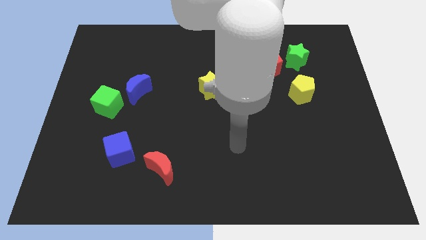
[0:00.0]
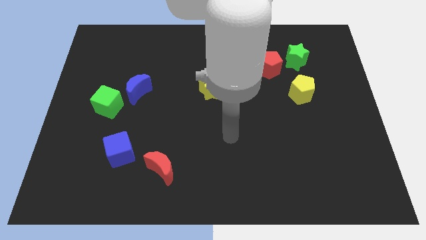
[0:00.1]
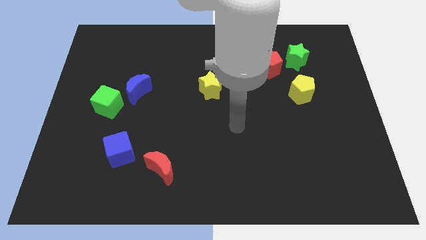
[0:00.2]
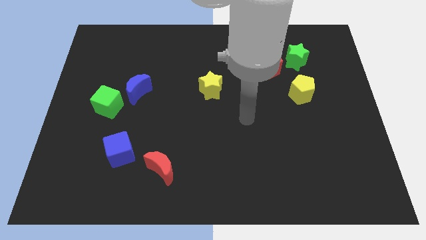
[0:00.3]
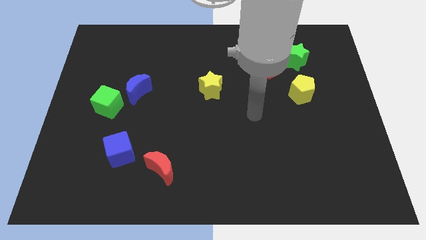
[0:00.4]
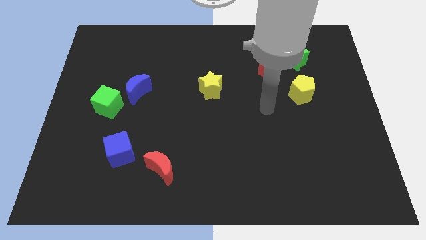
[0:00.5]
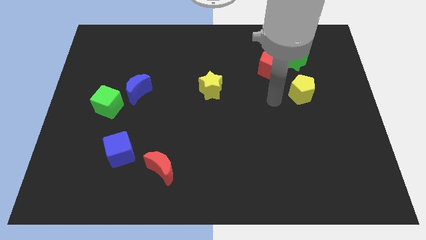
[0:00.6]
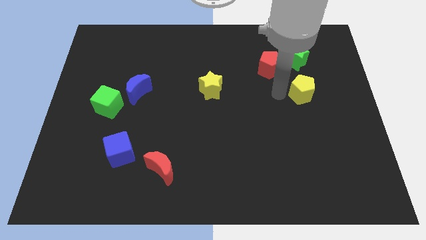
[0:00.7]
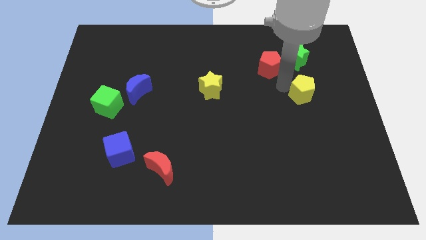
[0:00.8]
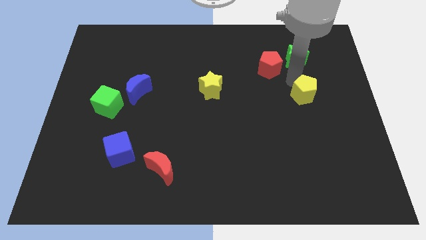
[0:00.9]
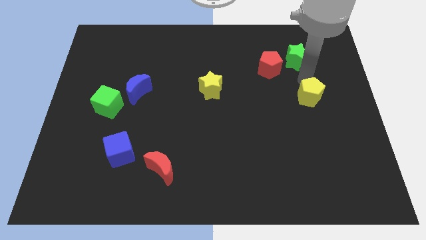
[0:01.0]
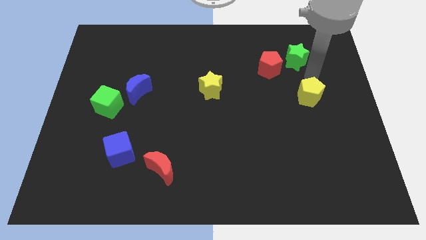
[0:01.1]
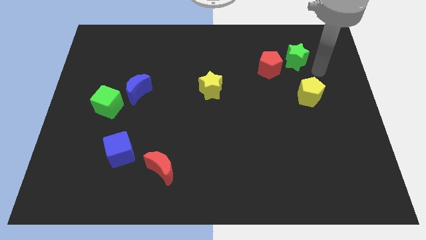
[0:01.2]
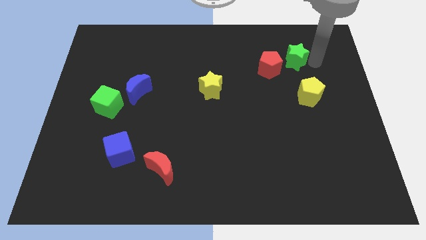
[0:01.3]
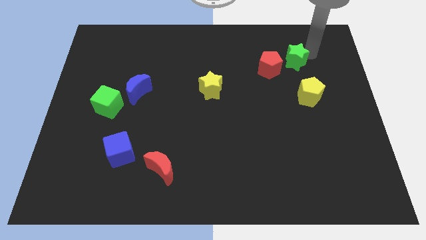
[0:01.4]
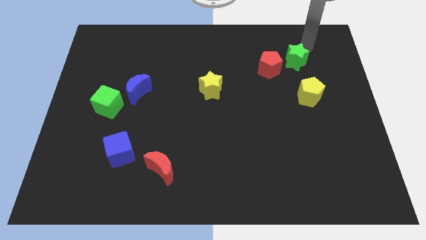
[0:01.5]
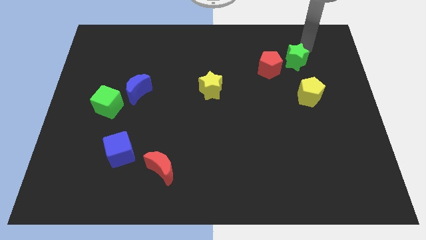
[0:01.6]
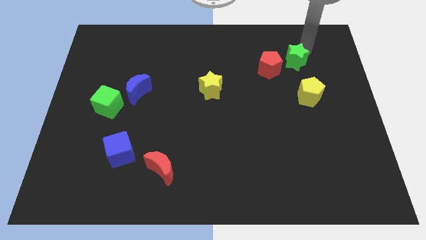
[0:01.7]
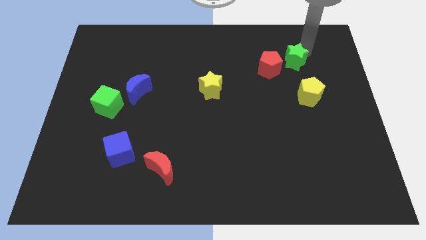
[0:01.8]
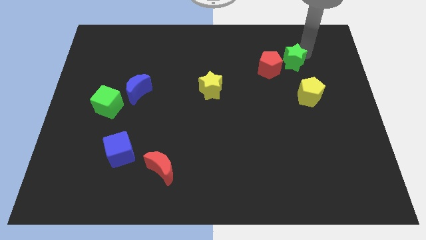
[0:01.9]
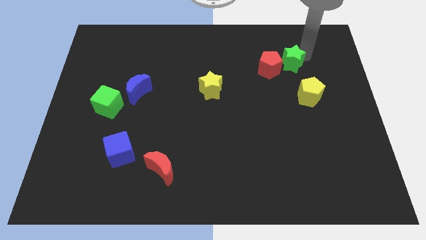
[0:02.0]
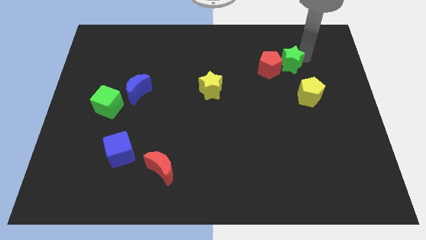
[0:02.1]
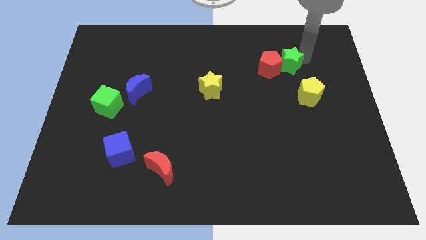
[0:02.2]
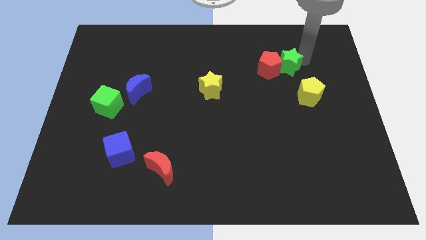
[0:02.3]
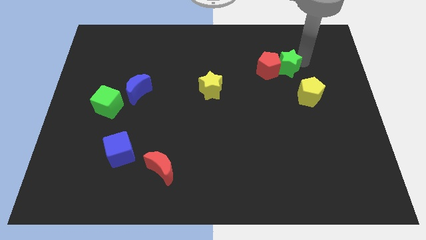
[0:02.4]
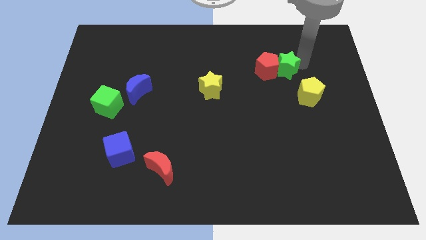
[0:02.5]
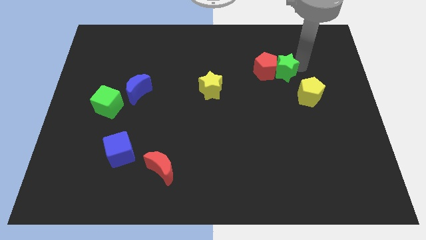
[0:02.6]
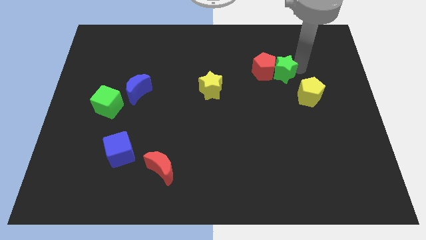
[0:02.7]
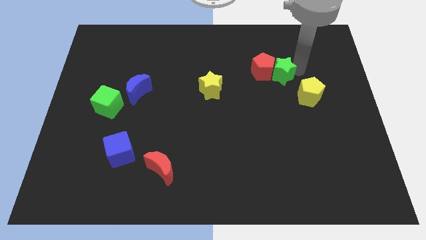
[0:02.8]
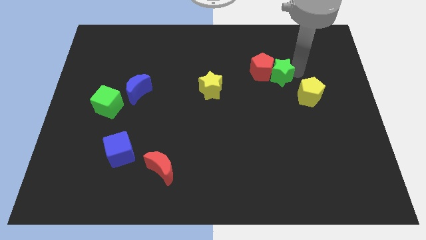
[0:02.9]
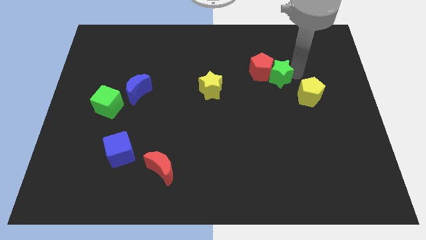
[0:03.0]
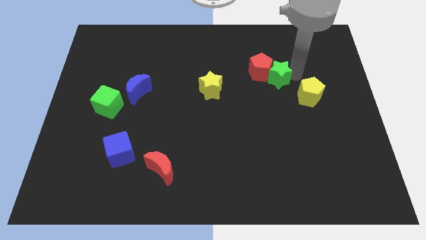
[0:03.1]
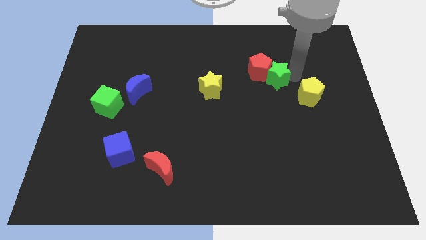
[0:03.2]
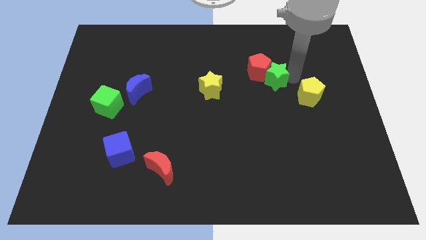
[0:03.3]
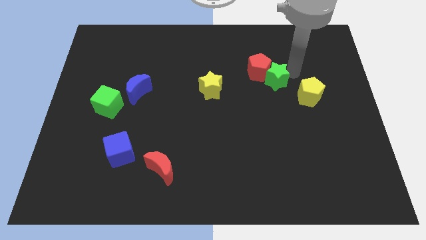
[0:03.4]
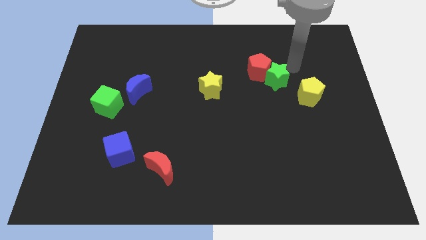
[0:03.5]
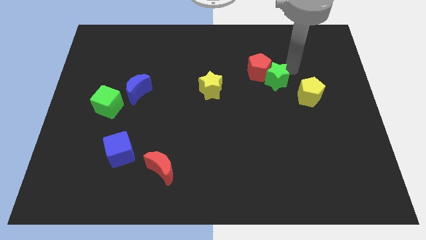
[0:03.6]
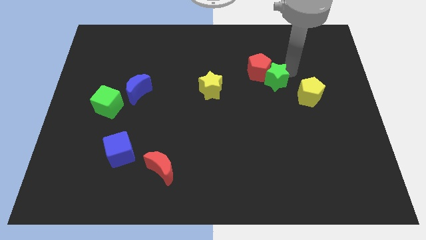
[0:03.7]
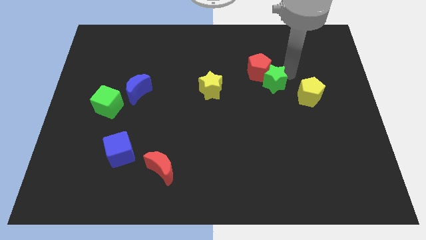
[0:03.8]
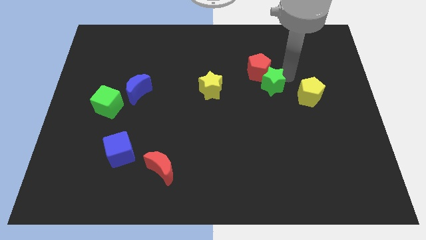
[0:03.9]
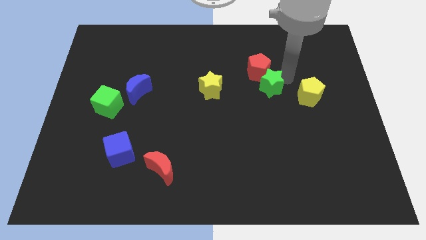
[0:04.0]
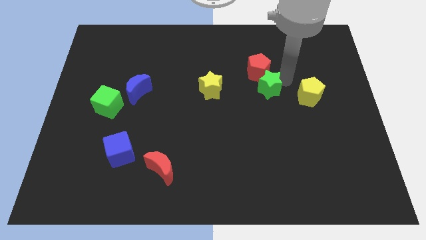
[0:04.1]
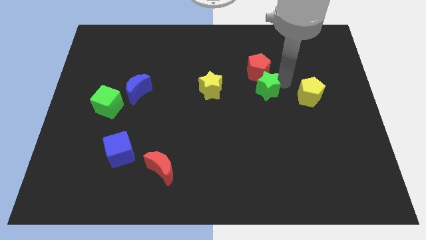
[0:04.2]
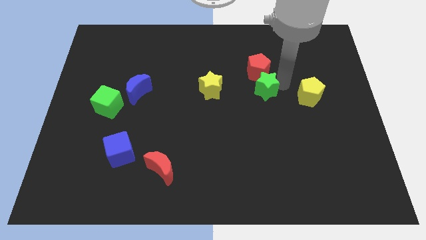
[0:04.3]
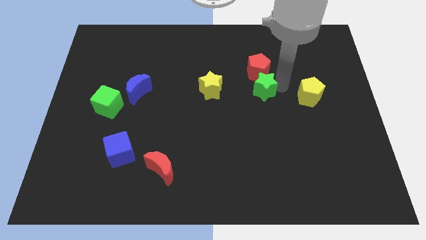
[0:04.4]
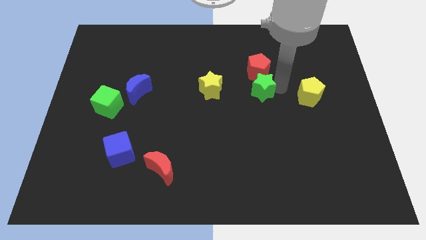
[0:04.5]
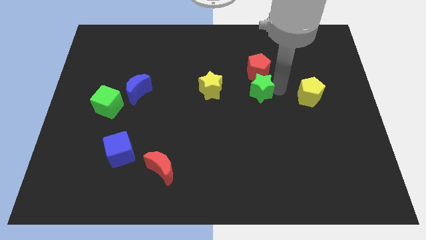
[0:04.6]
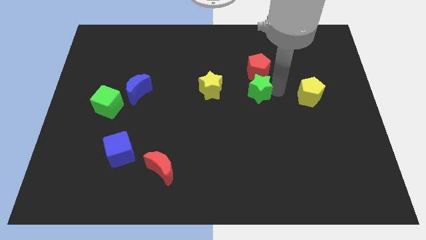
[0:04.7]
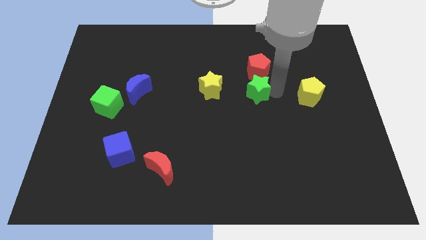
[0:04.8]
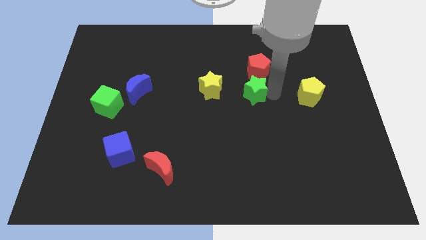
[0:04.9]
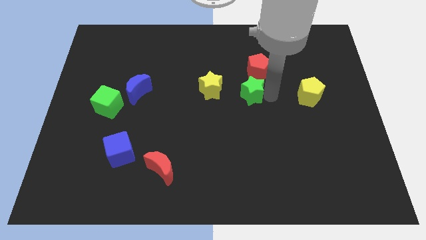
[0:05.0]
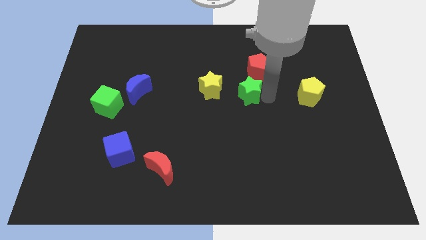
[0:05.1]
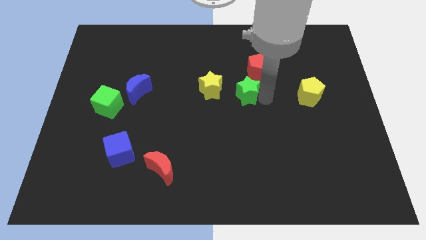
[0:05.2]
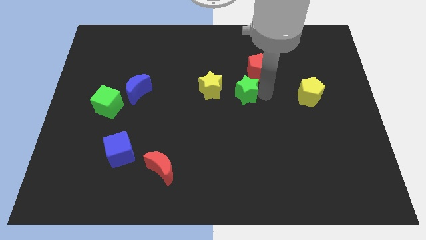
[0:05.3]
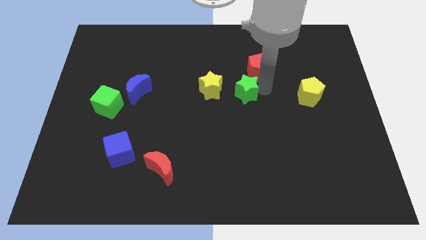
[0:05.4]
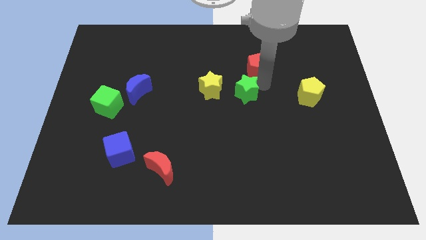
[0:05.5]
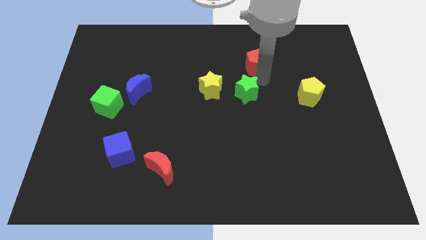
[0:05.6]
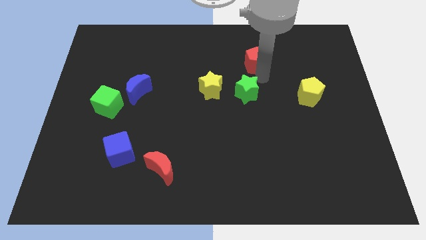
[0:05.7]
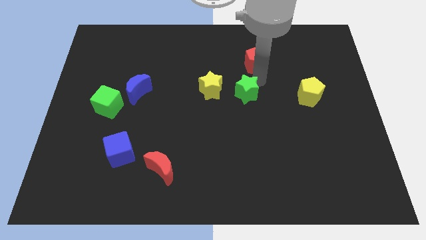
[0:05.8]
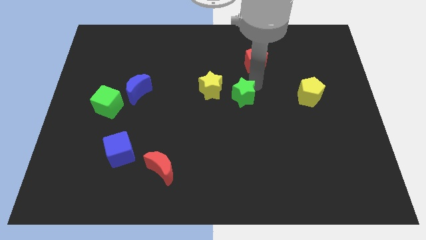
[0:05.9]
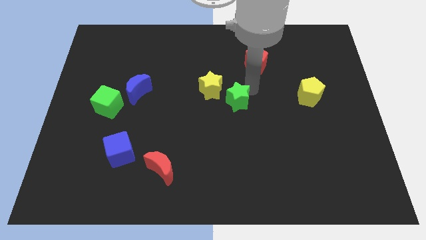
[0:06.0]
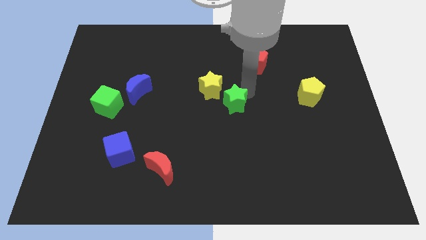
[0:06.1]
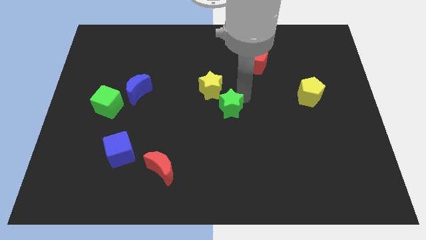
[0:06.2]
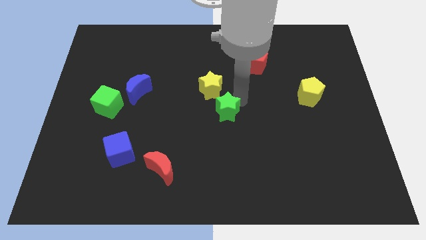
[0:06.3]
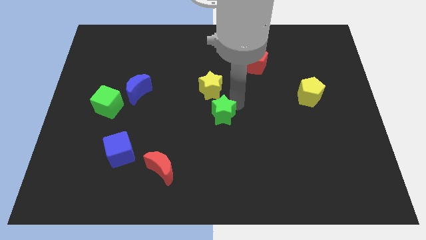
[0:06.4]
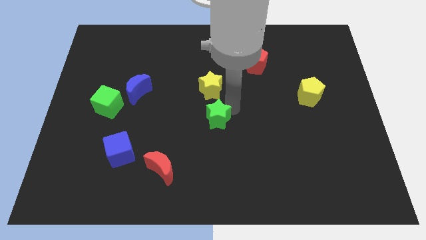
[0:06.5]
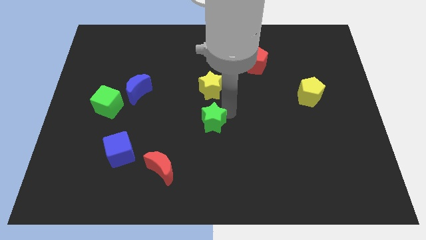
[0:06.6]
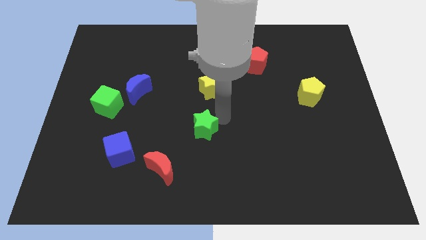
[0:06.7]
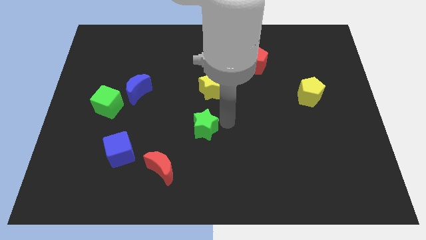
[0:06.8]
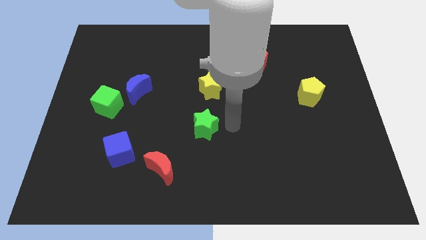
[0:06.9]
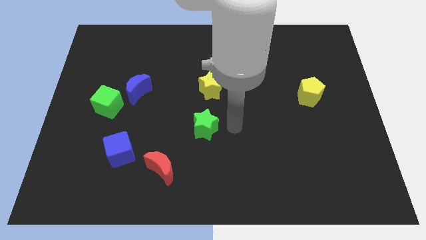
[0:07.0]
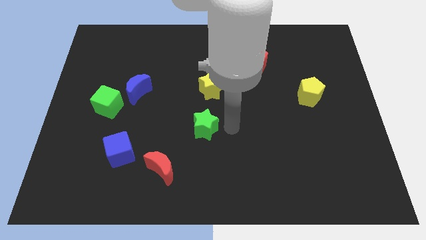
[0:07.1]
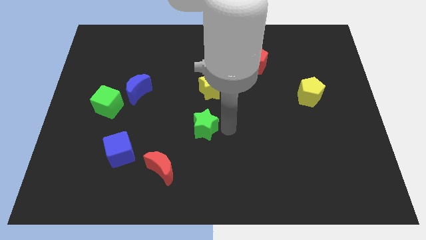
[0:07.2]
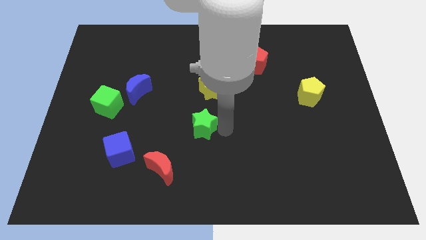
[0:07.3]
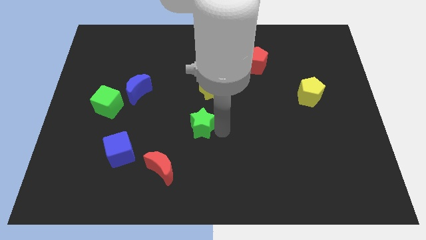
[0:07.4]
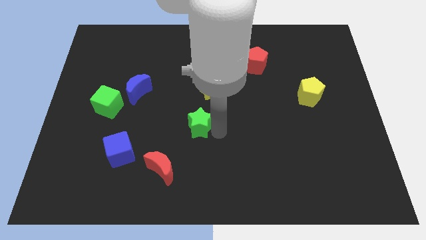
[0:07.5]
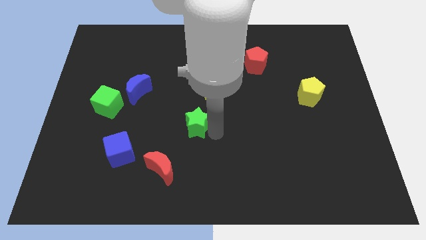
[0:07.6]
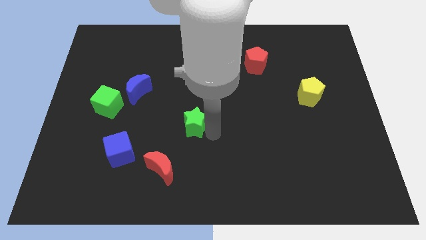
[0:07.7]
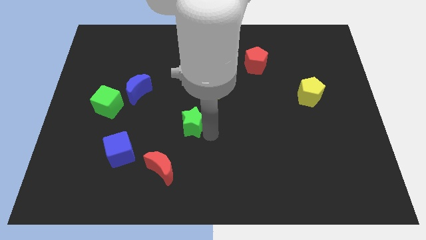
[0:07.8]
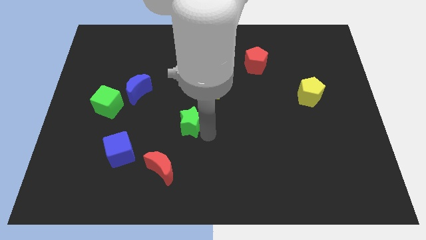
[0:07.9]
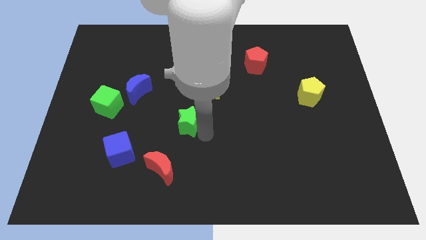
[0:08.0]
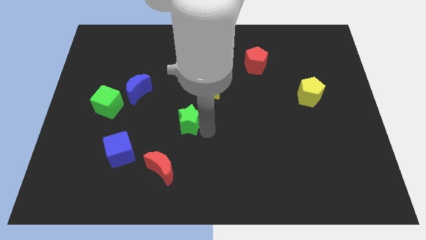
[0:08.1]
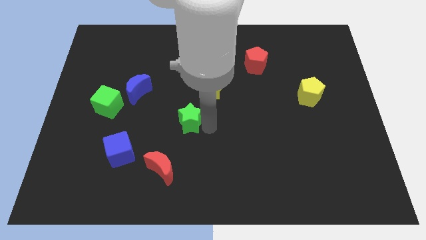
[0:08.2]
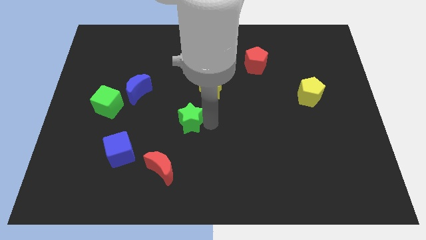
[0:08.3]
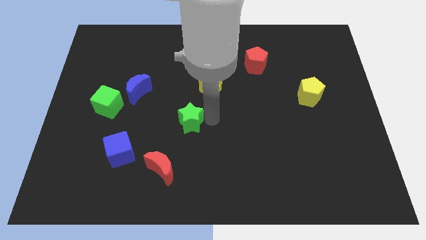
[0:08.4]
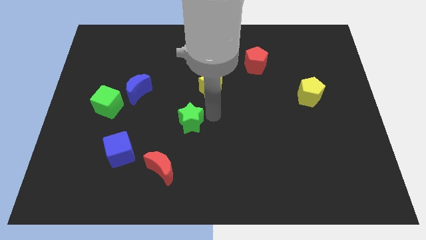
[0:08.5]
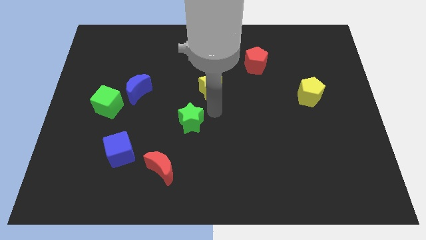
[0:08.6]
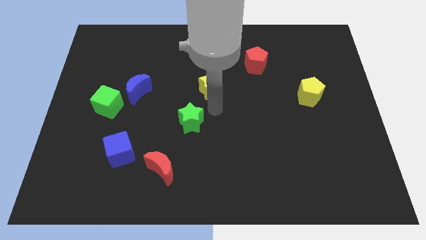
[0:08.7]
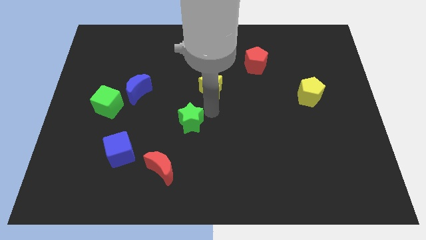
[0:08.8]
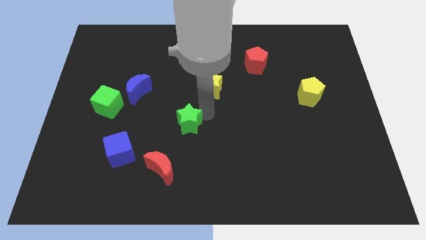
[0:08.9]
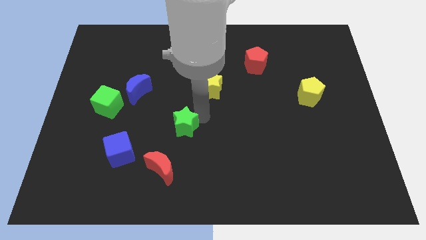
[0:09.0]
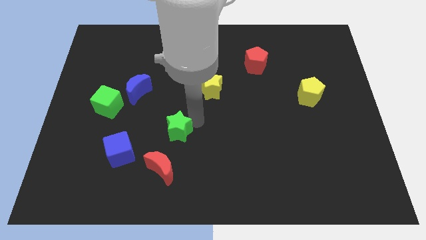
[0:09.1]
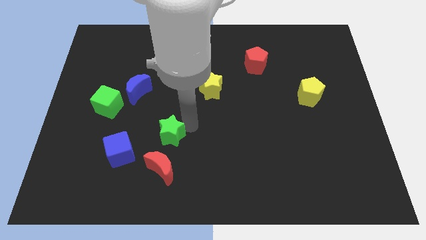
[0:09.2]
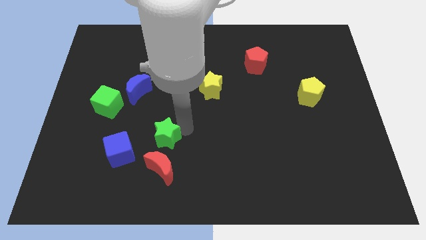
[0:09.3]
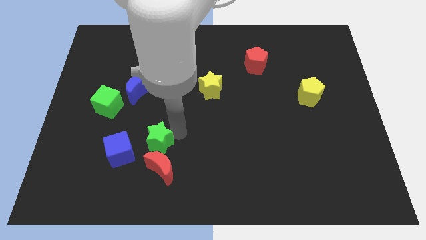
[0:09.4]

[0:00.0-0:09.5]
put the green star to the top left side of the red moon
